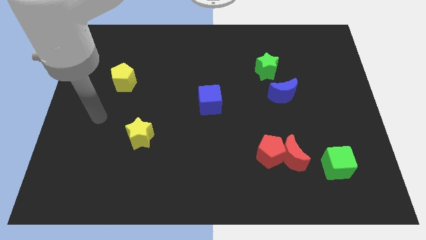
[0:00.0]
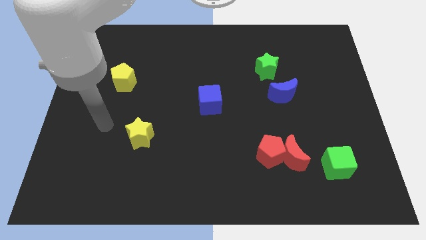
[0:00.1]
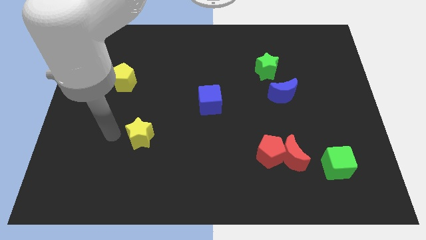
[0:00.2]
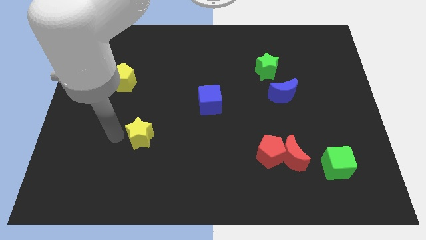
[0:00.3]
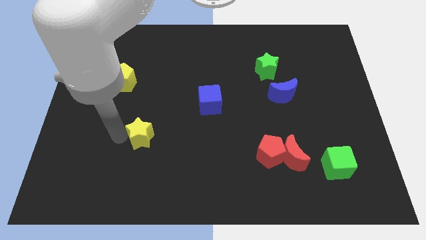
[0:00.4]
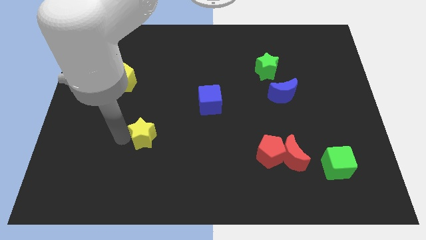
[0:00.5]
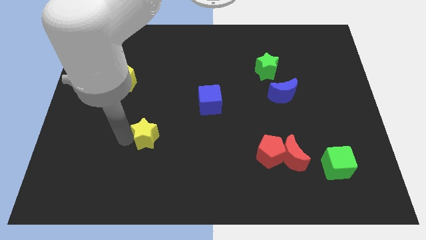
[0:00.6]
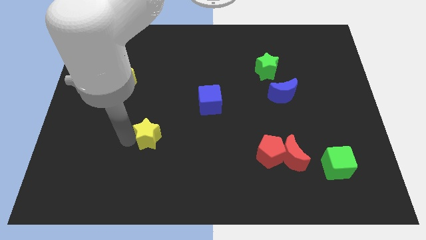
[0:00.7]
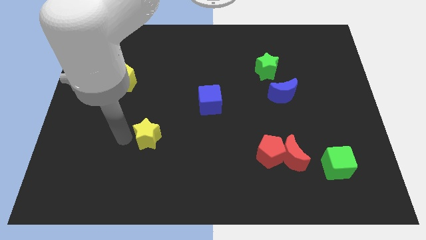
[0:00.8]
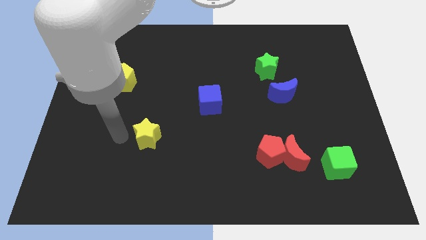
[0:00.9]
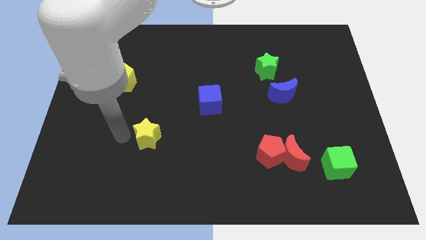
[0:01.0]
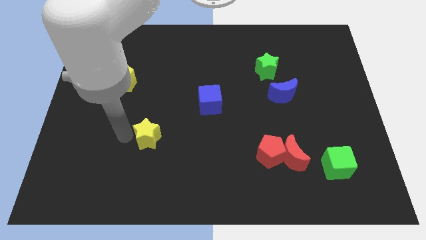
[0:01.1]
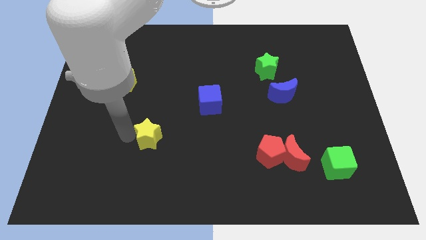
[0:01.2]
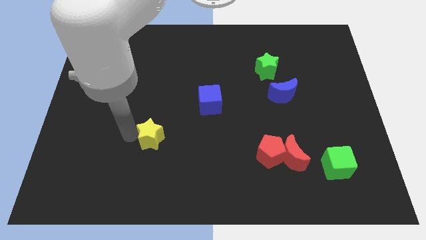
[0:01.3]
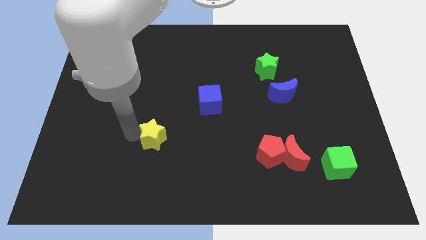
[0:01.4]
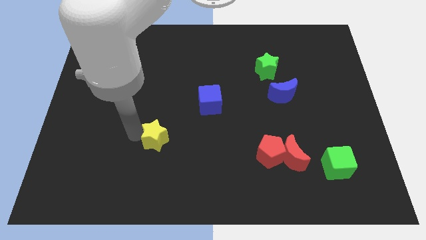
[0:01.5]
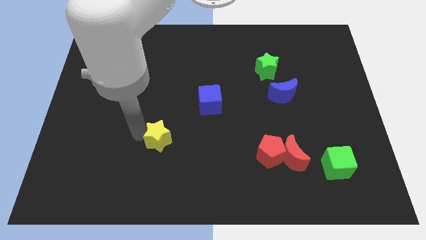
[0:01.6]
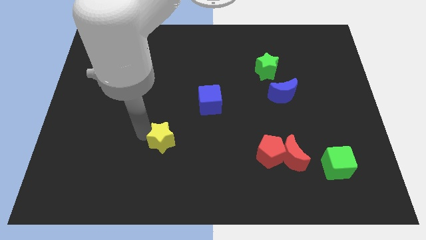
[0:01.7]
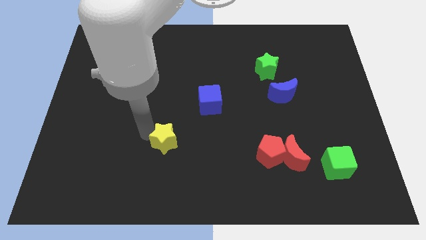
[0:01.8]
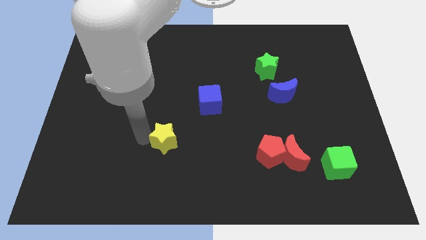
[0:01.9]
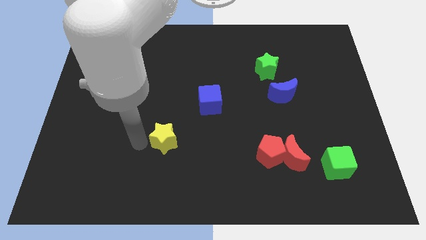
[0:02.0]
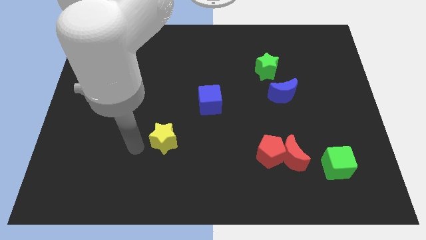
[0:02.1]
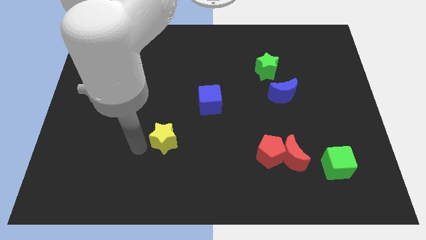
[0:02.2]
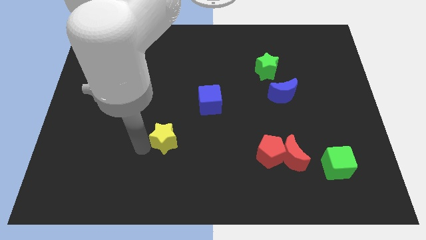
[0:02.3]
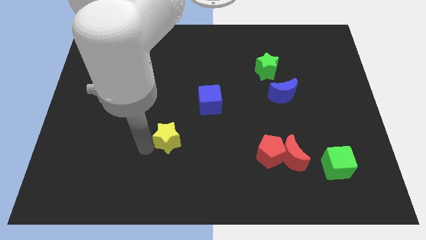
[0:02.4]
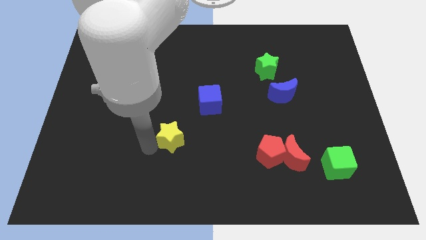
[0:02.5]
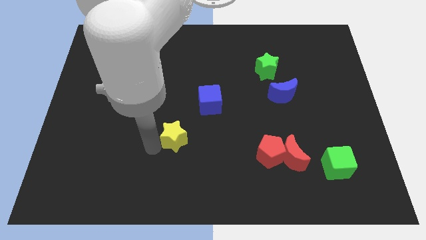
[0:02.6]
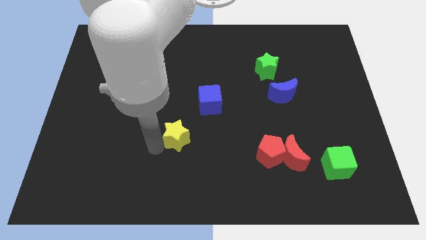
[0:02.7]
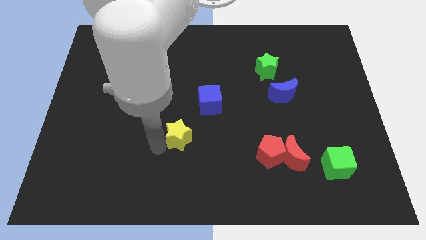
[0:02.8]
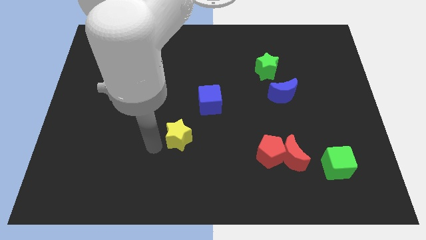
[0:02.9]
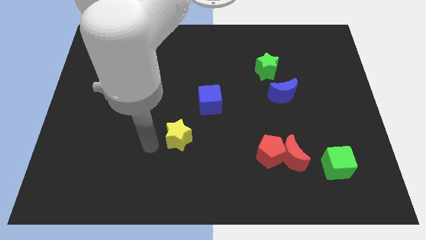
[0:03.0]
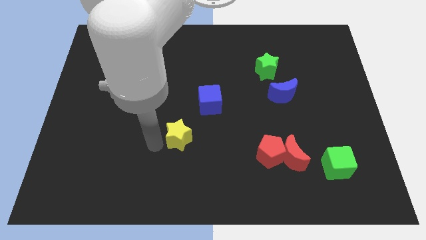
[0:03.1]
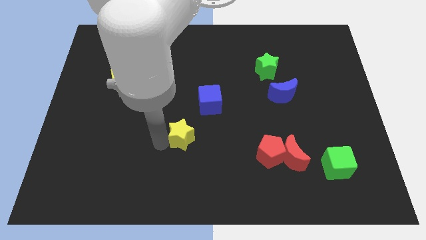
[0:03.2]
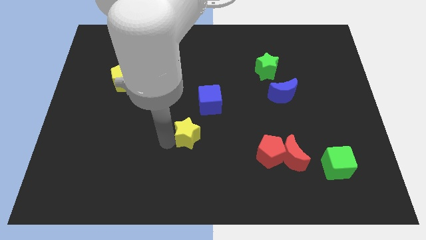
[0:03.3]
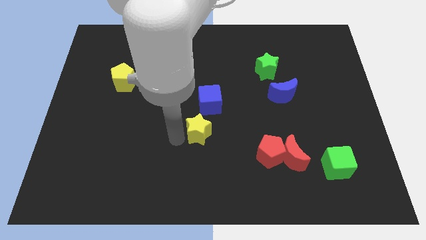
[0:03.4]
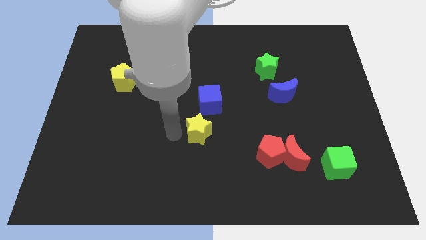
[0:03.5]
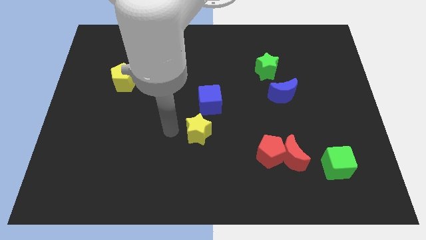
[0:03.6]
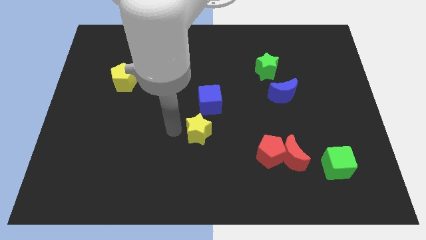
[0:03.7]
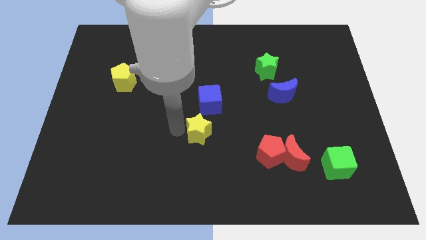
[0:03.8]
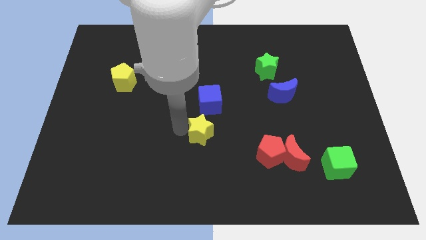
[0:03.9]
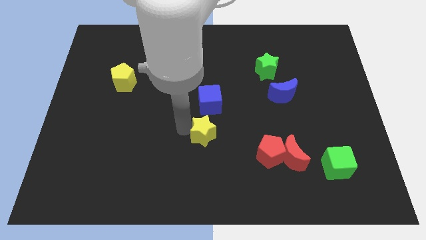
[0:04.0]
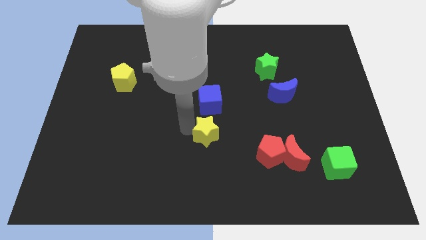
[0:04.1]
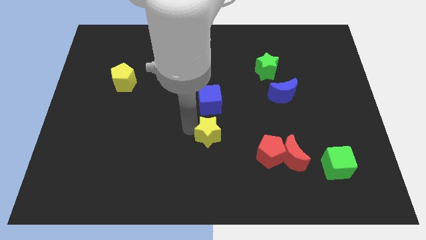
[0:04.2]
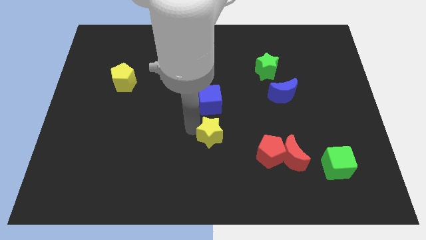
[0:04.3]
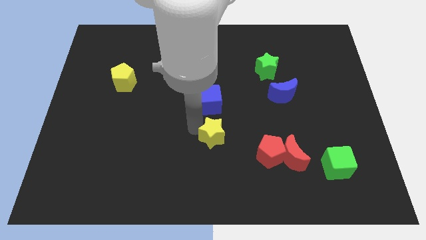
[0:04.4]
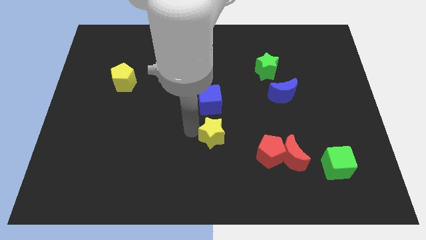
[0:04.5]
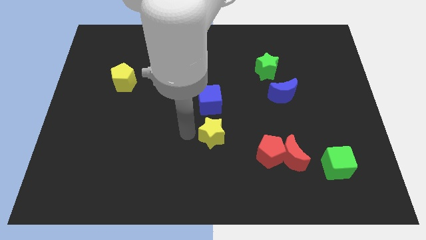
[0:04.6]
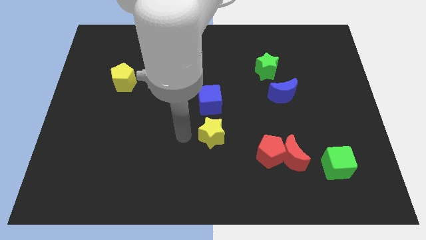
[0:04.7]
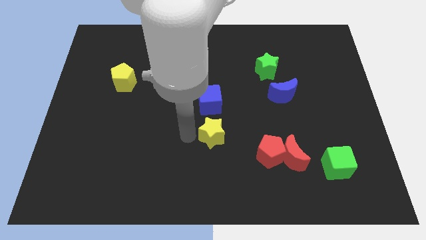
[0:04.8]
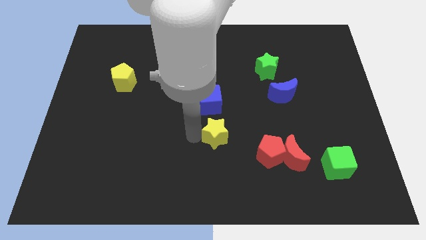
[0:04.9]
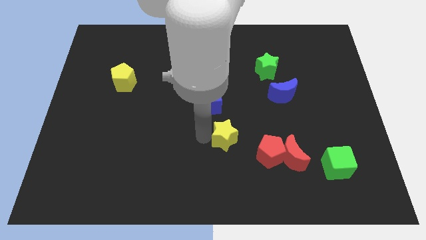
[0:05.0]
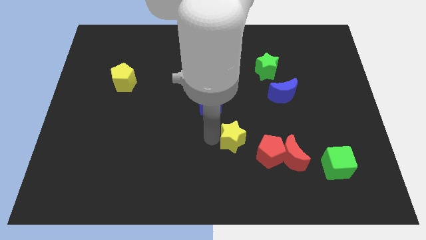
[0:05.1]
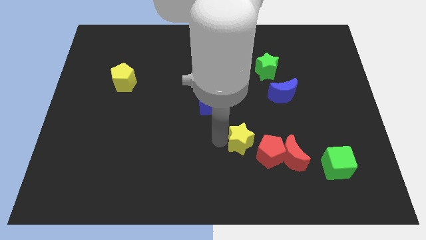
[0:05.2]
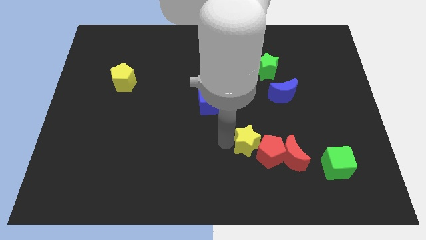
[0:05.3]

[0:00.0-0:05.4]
push the yellow star close to the red pentagon

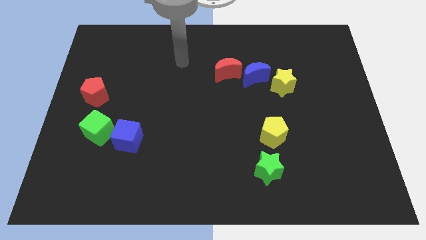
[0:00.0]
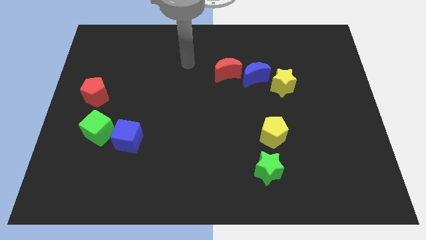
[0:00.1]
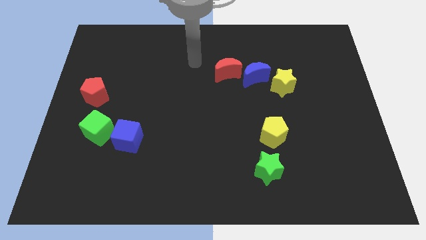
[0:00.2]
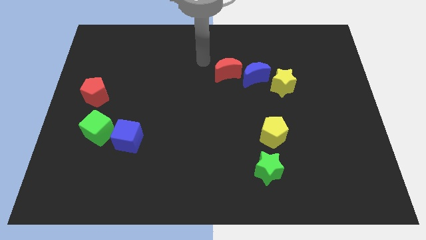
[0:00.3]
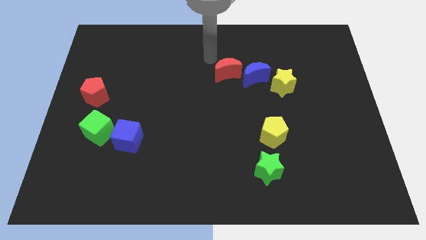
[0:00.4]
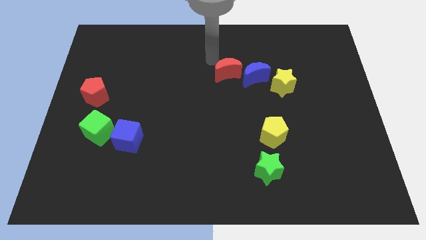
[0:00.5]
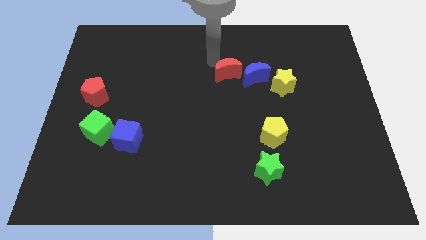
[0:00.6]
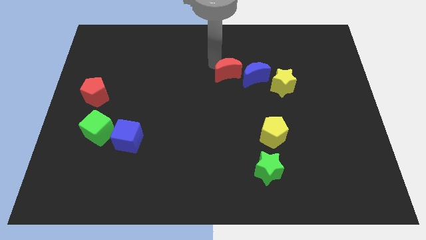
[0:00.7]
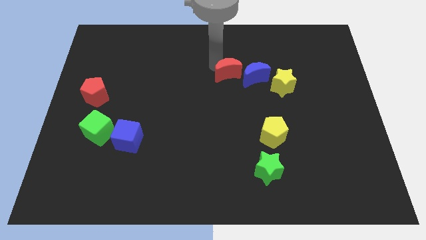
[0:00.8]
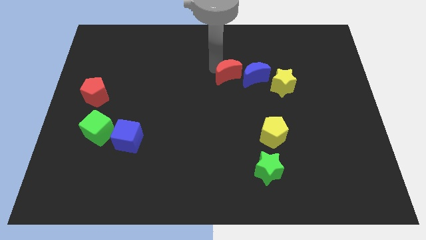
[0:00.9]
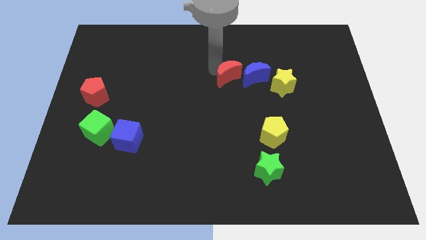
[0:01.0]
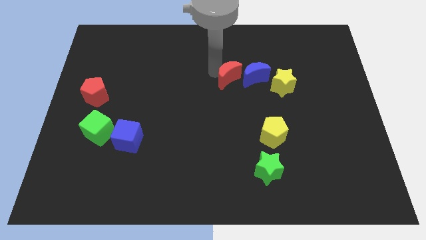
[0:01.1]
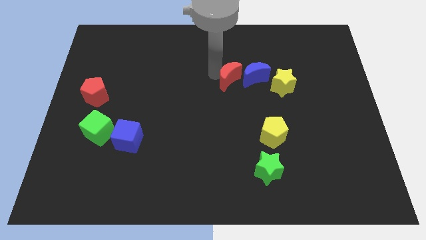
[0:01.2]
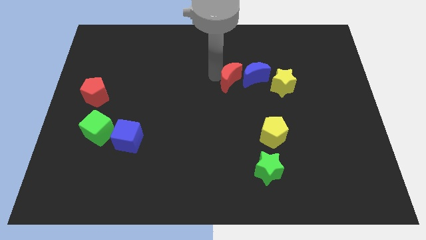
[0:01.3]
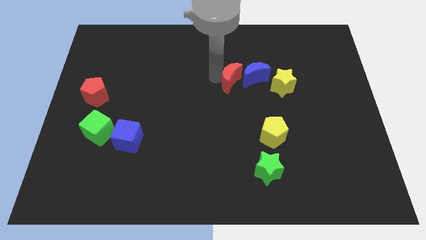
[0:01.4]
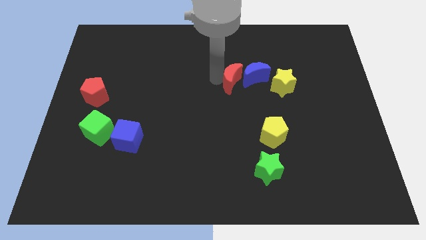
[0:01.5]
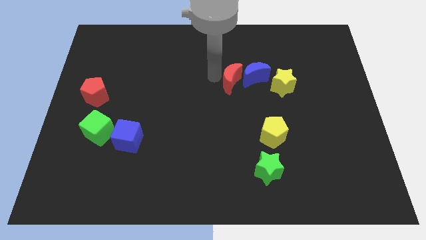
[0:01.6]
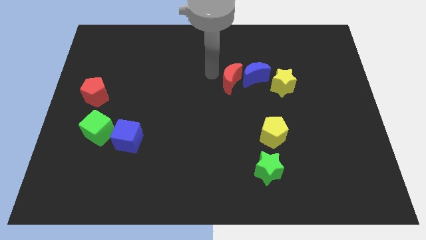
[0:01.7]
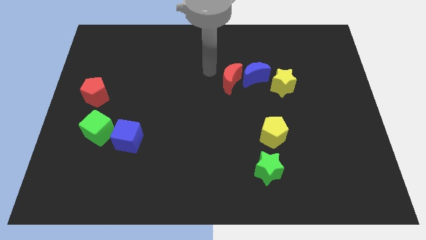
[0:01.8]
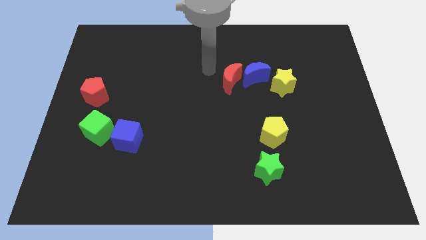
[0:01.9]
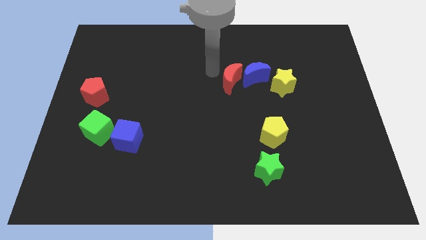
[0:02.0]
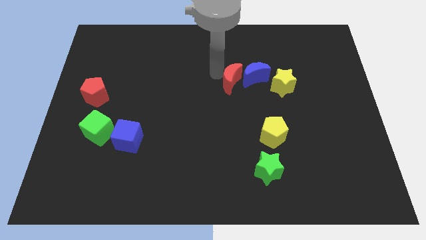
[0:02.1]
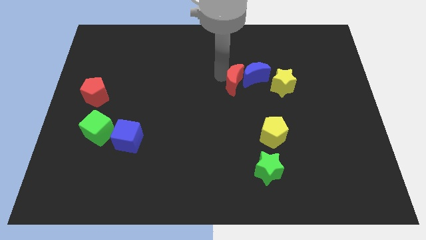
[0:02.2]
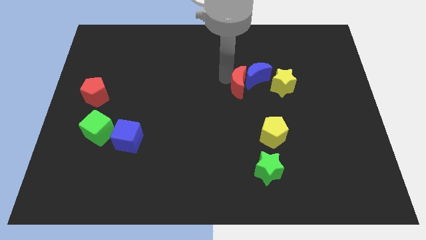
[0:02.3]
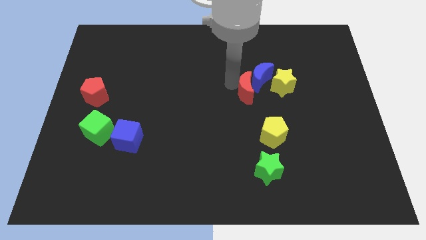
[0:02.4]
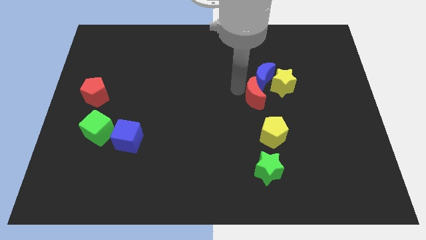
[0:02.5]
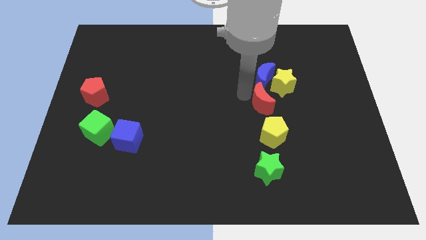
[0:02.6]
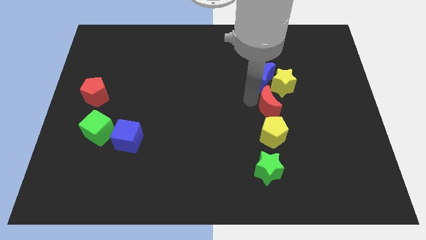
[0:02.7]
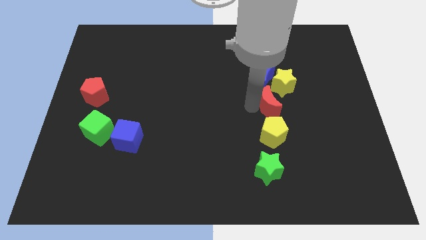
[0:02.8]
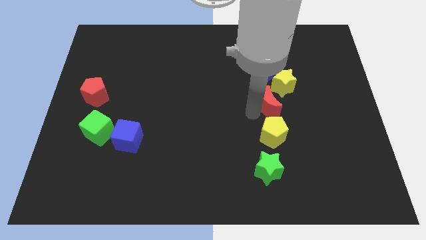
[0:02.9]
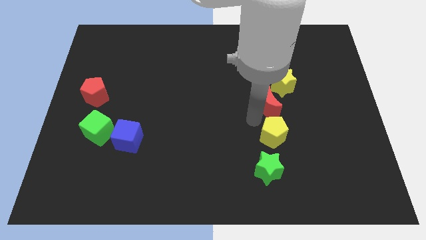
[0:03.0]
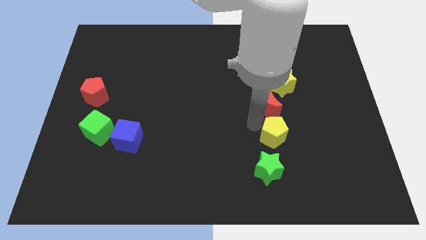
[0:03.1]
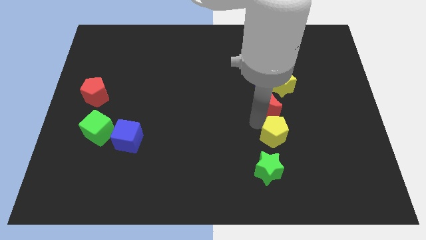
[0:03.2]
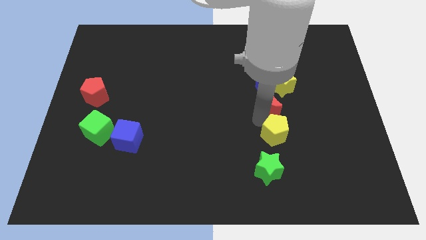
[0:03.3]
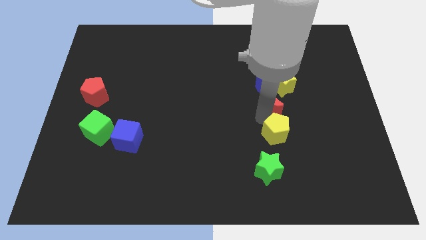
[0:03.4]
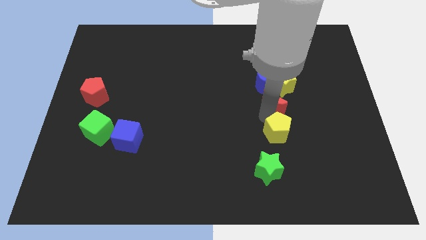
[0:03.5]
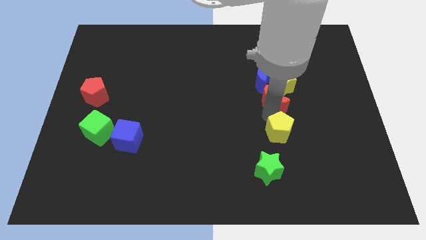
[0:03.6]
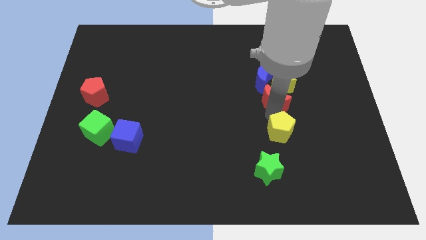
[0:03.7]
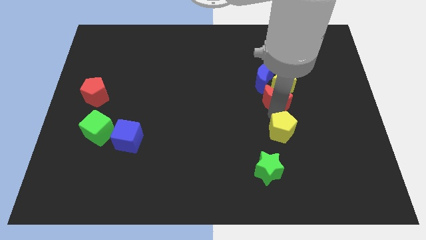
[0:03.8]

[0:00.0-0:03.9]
move the red moon close to the yellow star
